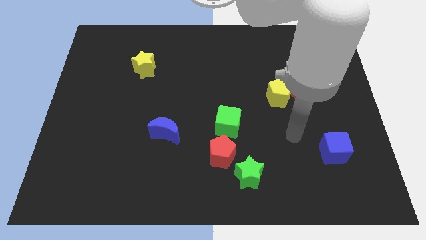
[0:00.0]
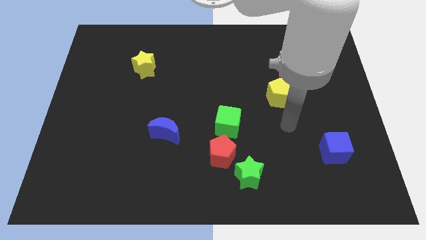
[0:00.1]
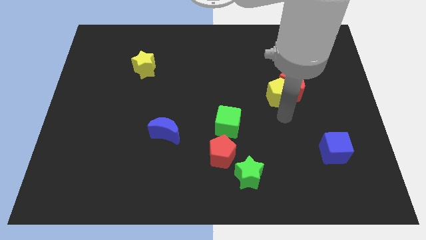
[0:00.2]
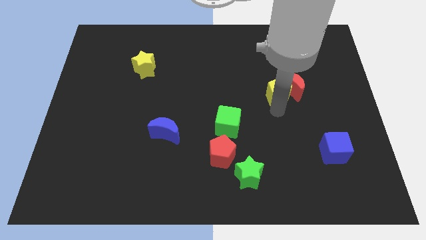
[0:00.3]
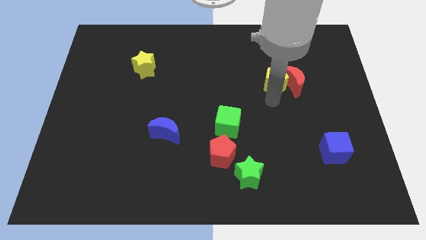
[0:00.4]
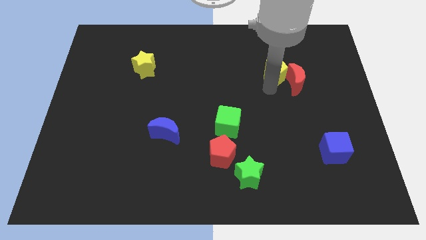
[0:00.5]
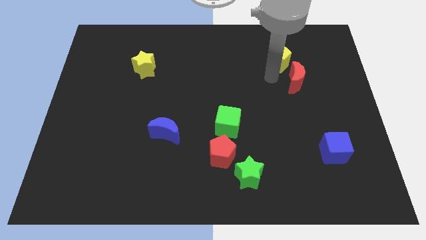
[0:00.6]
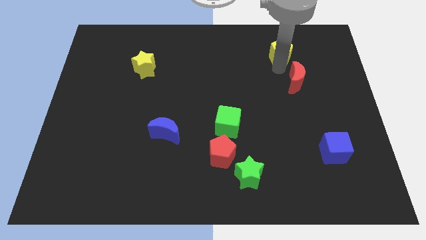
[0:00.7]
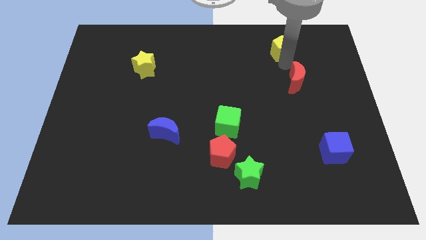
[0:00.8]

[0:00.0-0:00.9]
separate the red moon from the yellow pentagon

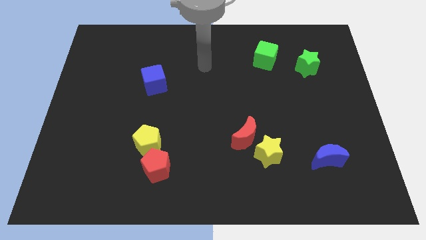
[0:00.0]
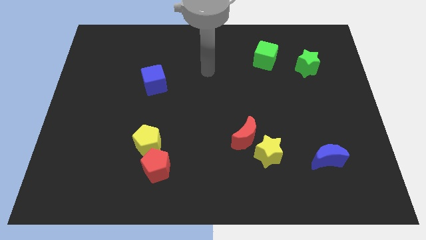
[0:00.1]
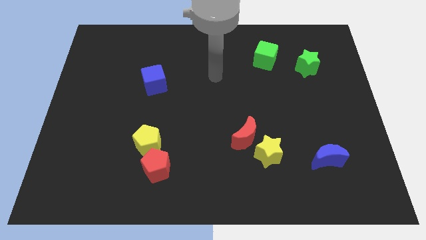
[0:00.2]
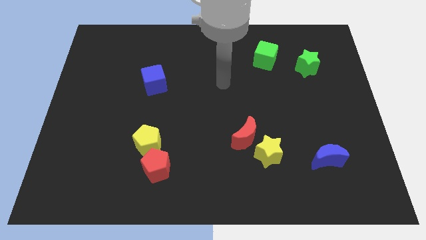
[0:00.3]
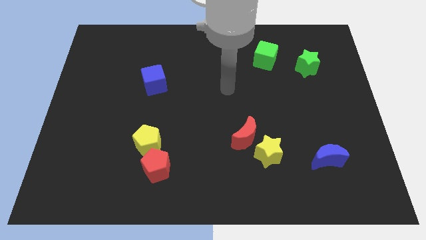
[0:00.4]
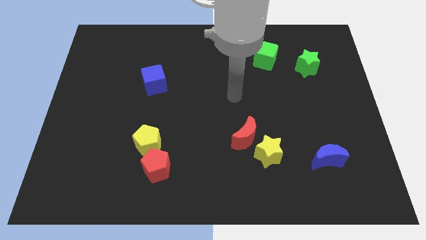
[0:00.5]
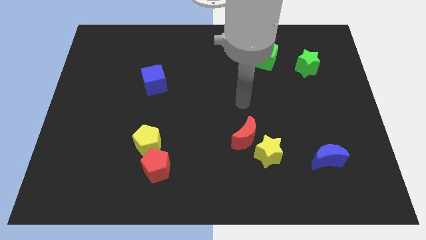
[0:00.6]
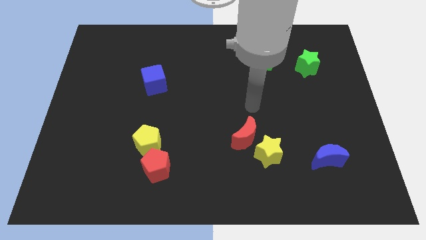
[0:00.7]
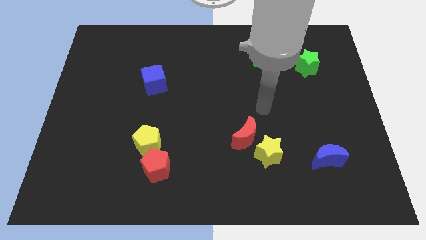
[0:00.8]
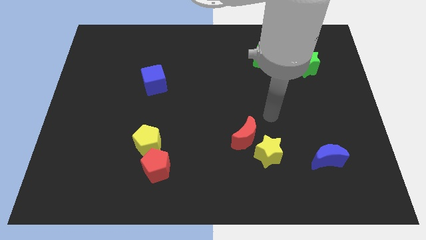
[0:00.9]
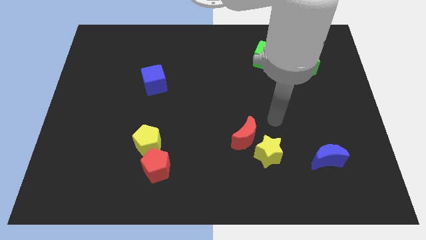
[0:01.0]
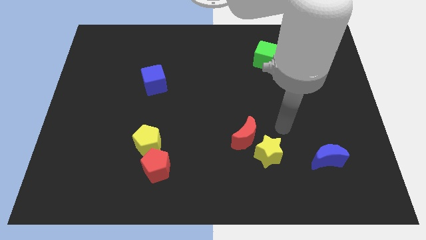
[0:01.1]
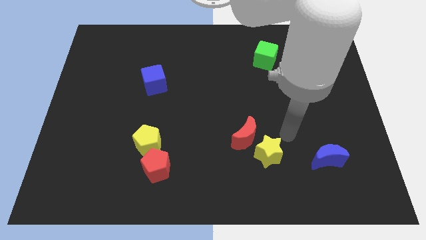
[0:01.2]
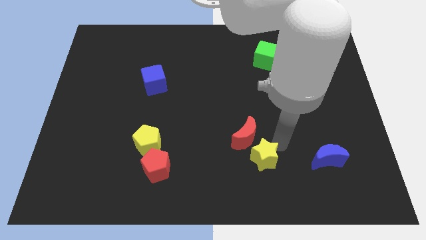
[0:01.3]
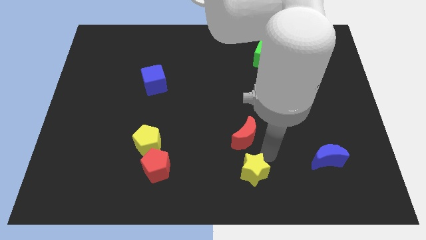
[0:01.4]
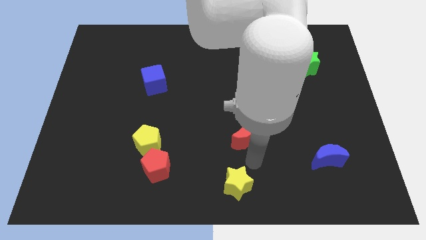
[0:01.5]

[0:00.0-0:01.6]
move the red moon away from the yellow star

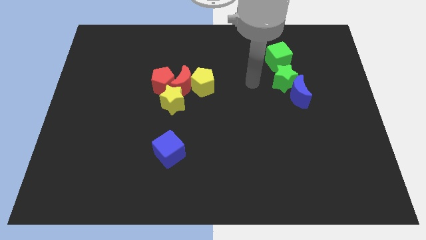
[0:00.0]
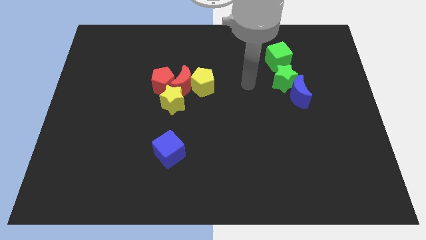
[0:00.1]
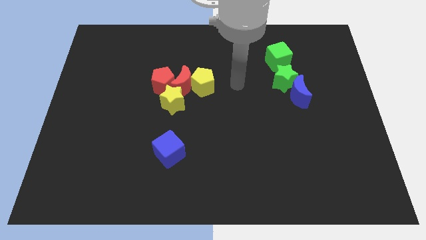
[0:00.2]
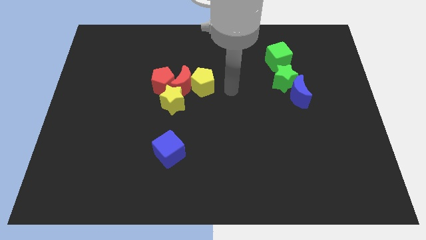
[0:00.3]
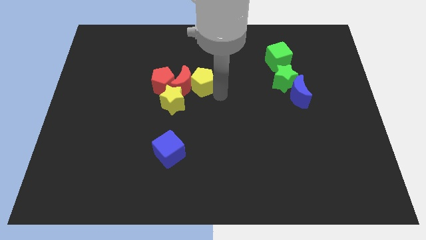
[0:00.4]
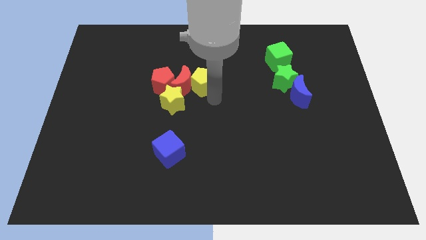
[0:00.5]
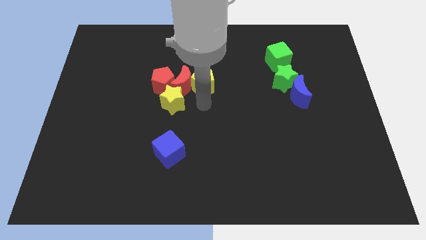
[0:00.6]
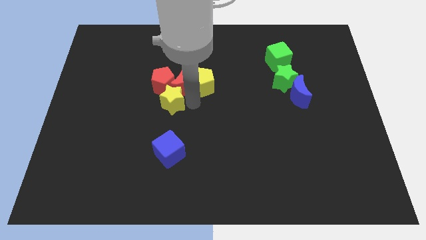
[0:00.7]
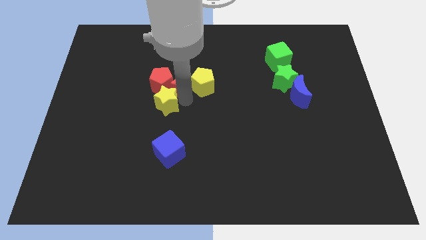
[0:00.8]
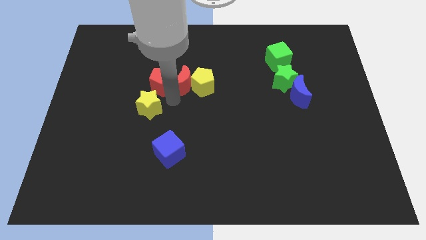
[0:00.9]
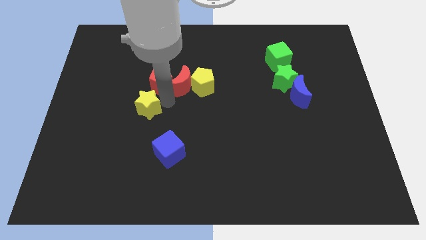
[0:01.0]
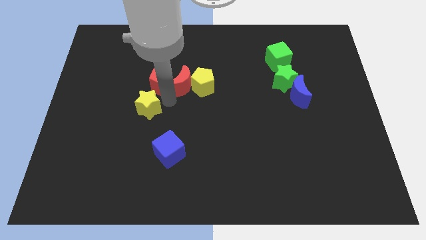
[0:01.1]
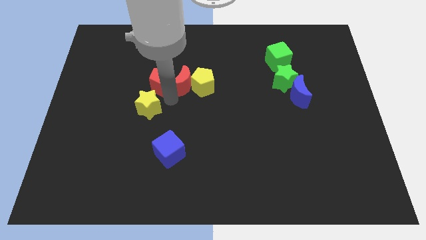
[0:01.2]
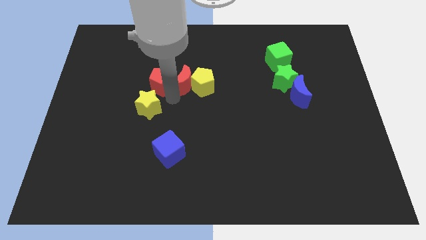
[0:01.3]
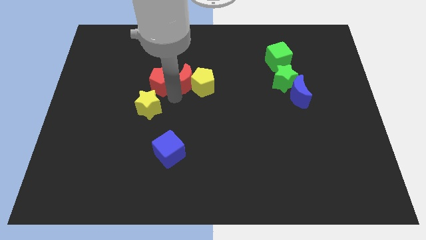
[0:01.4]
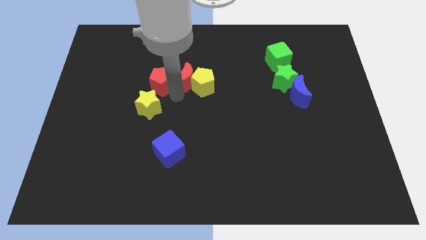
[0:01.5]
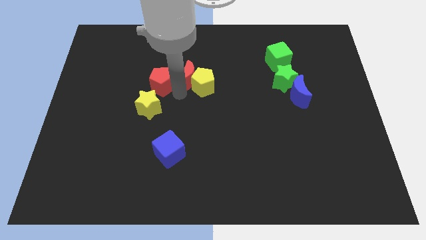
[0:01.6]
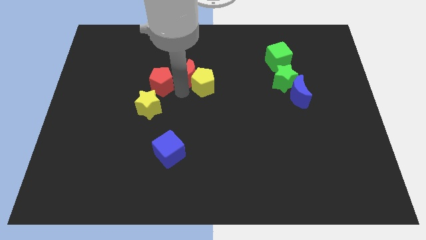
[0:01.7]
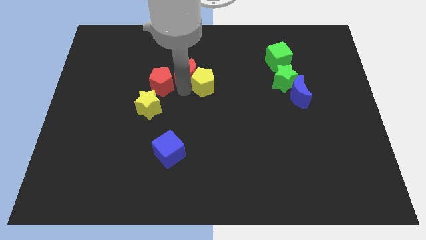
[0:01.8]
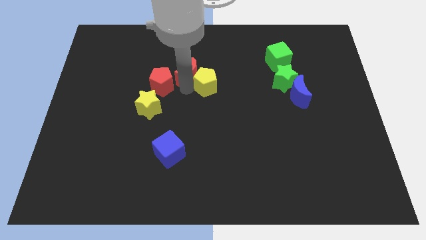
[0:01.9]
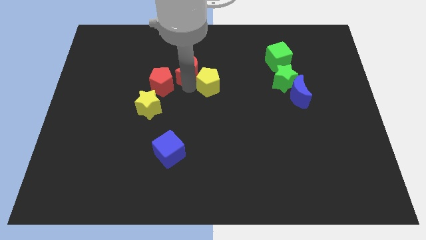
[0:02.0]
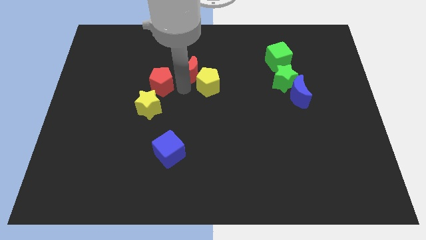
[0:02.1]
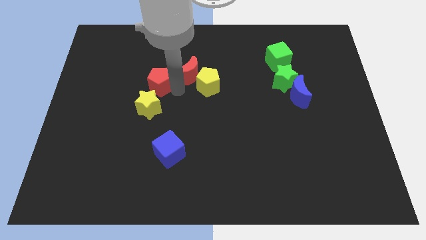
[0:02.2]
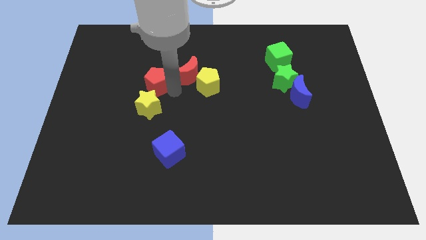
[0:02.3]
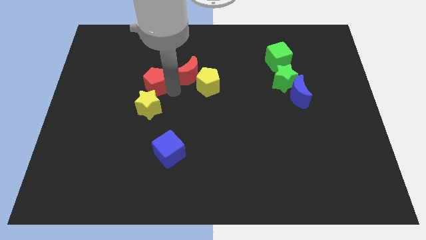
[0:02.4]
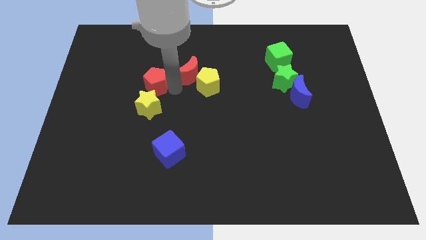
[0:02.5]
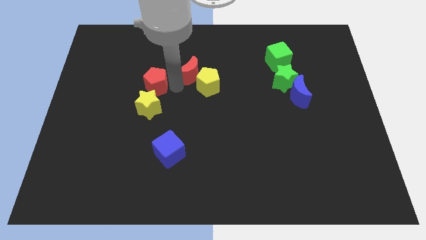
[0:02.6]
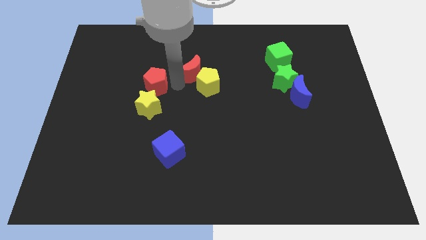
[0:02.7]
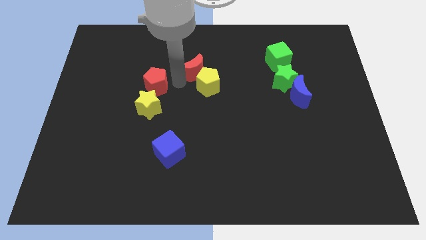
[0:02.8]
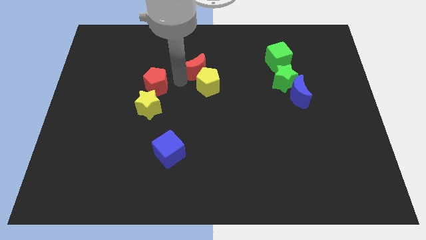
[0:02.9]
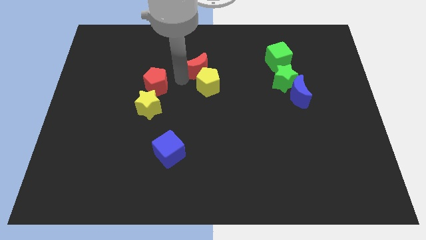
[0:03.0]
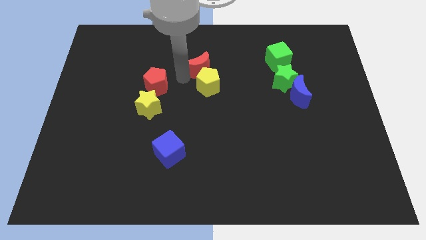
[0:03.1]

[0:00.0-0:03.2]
separate the red moon from the group of blocks

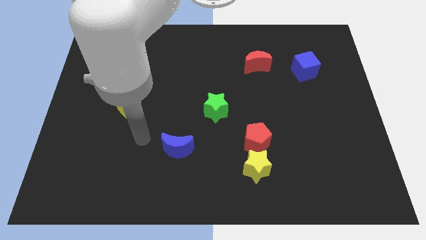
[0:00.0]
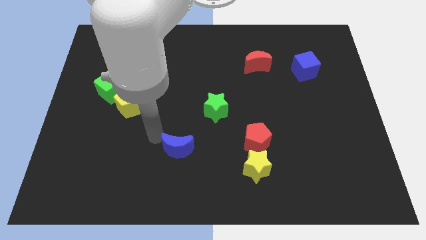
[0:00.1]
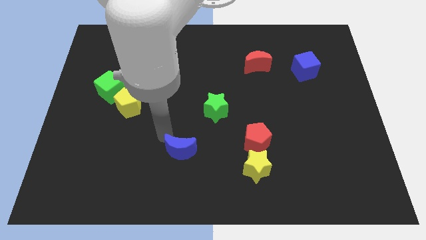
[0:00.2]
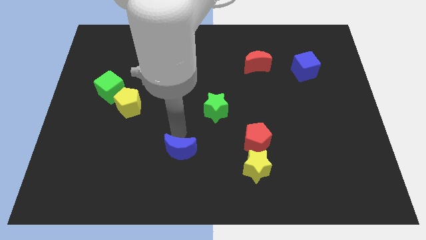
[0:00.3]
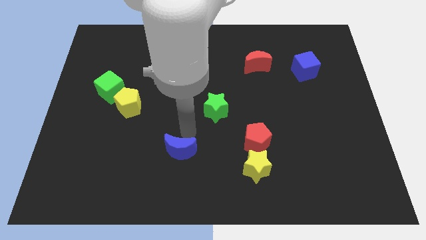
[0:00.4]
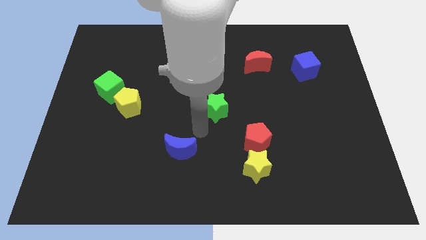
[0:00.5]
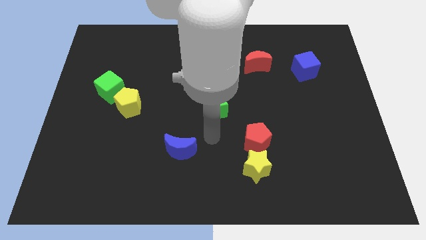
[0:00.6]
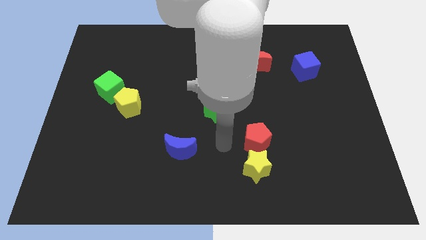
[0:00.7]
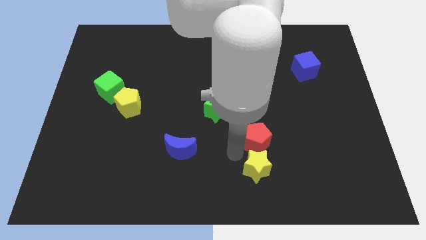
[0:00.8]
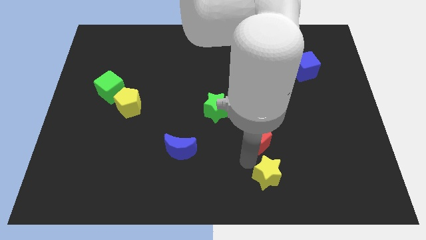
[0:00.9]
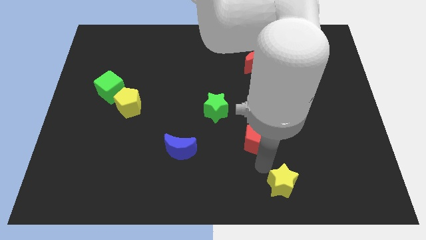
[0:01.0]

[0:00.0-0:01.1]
pull the red pentagon apart from the yellow star

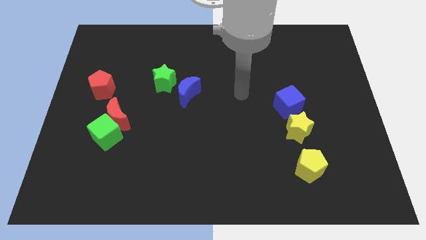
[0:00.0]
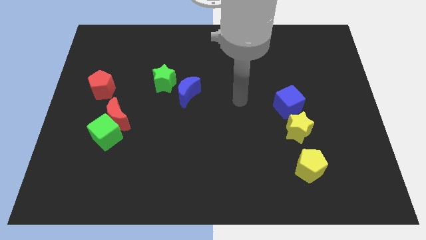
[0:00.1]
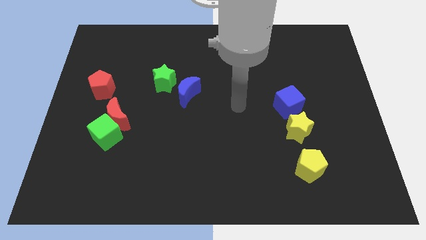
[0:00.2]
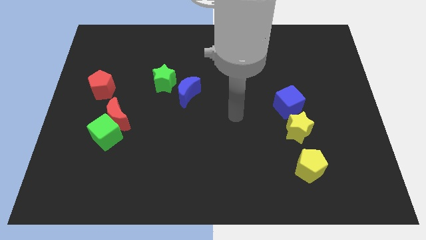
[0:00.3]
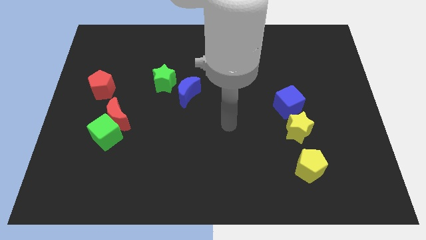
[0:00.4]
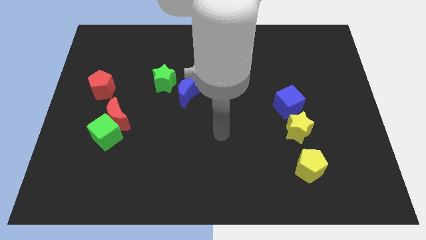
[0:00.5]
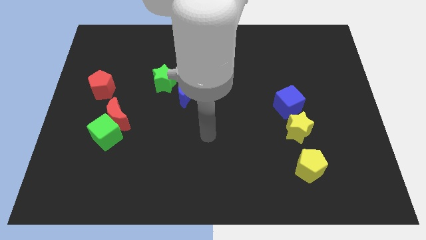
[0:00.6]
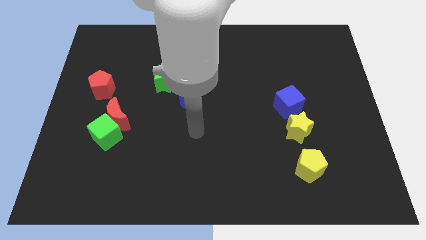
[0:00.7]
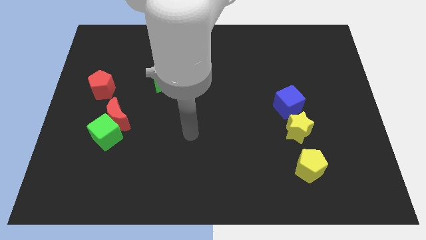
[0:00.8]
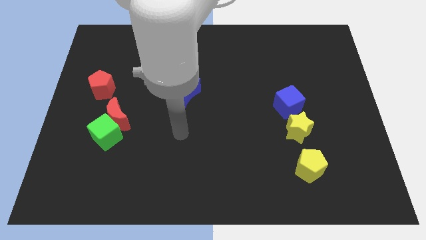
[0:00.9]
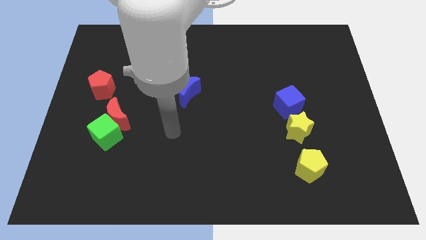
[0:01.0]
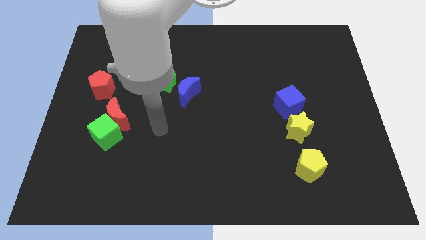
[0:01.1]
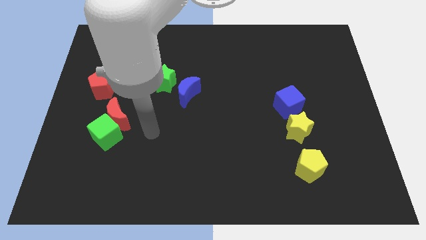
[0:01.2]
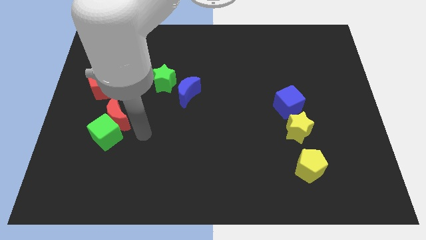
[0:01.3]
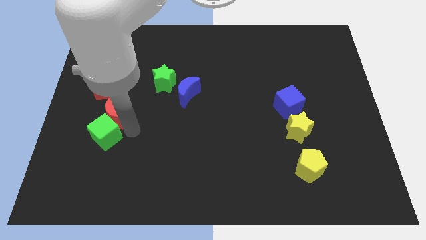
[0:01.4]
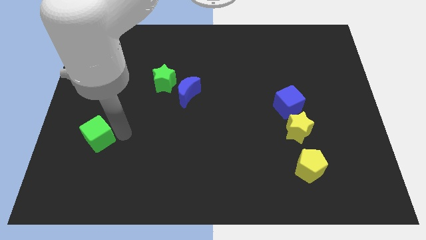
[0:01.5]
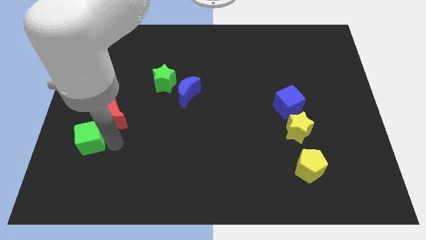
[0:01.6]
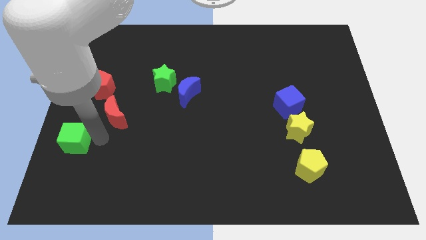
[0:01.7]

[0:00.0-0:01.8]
pull the red moon apart from the green cube

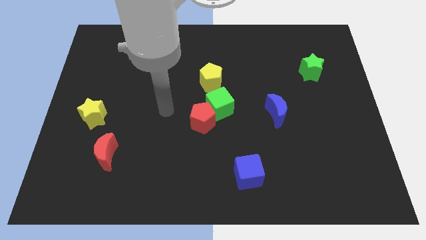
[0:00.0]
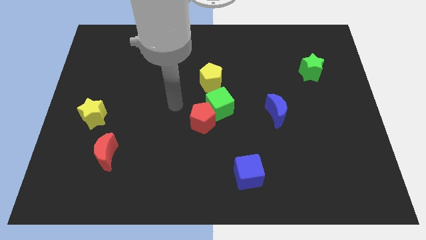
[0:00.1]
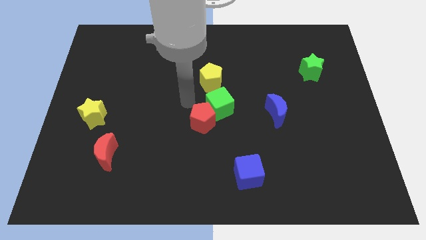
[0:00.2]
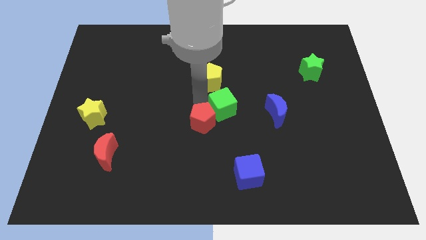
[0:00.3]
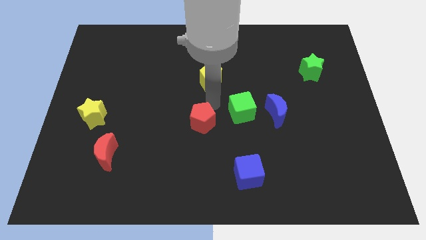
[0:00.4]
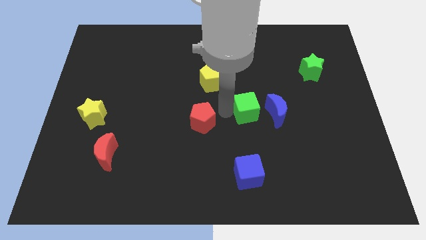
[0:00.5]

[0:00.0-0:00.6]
move the red pentagon away from the green cube

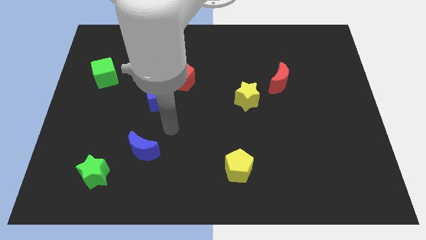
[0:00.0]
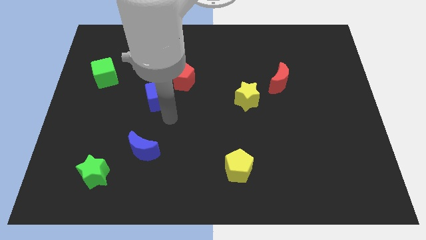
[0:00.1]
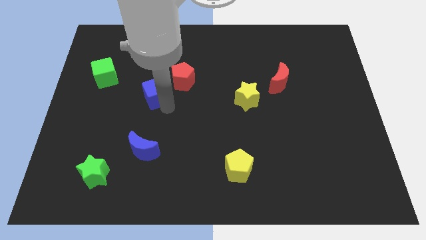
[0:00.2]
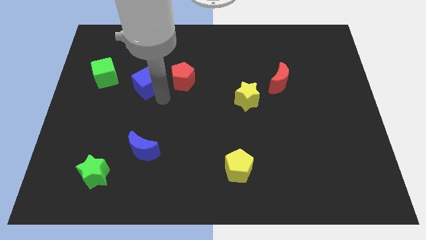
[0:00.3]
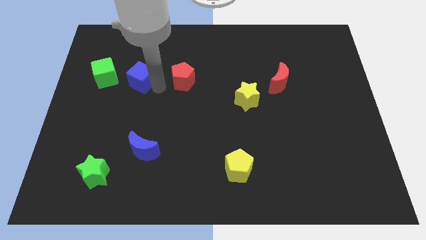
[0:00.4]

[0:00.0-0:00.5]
separate the red pentagon from the blue cube
